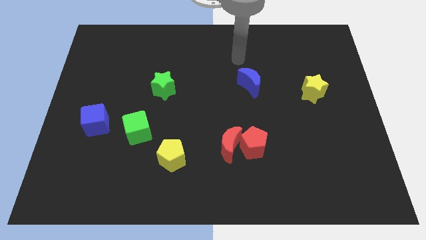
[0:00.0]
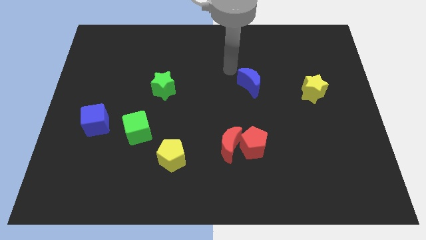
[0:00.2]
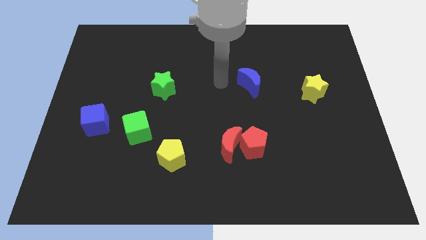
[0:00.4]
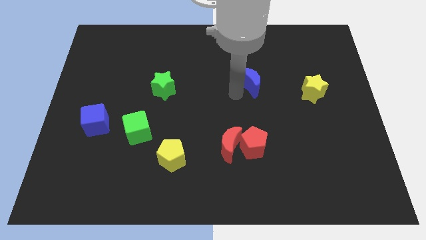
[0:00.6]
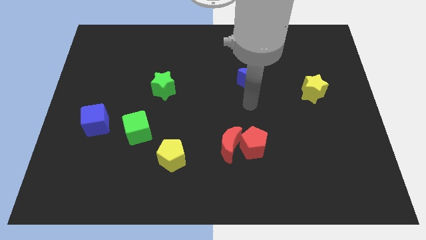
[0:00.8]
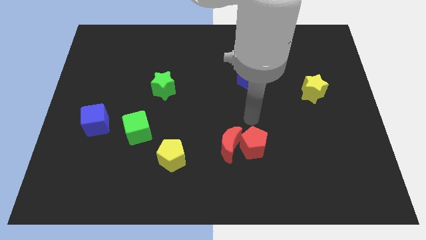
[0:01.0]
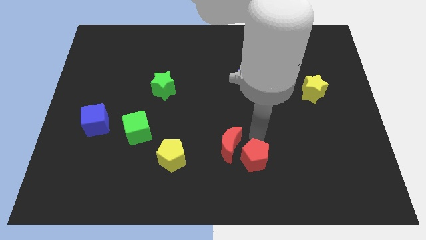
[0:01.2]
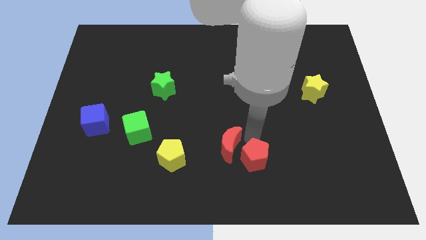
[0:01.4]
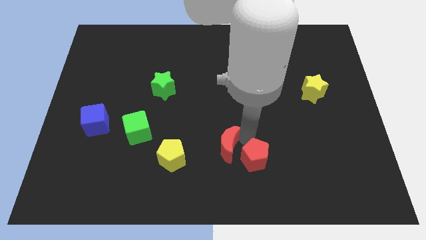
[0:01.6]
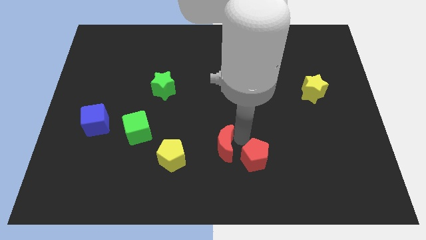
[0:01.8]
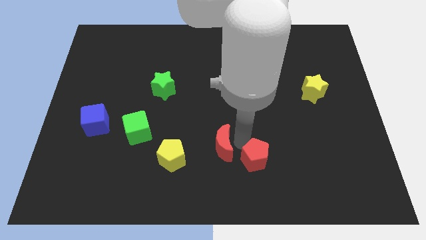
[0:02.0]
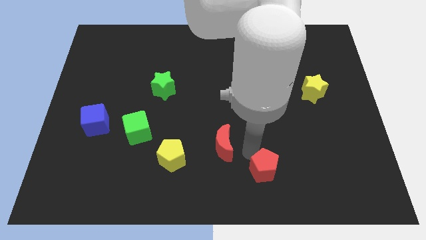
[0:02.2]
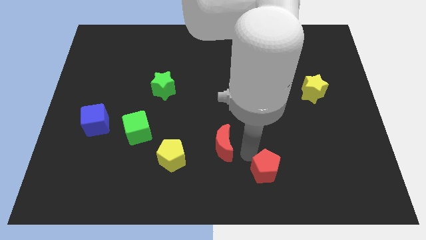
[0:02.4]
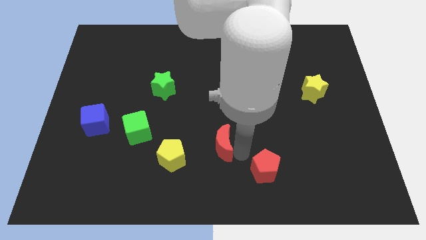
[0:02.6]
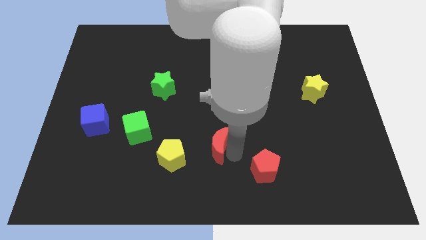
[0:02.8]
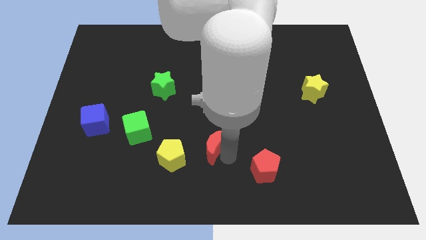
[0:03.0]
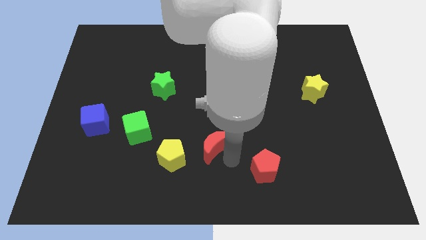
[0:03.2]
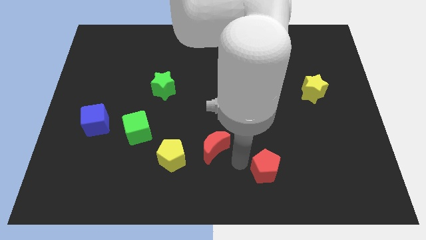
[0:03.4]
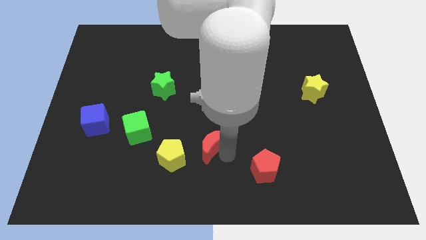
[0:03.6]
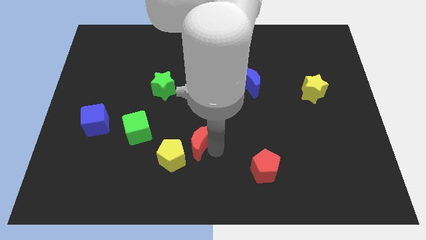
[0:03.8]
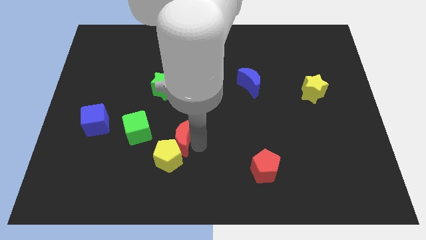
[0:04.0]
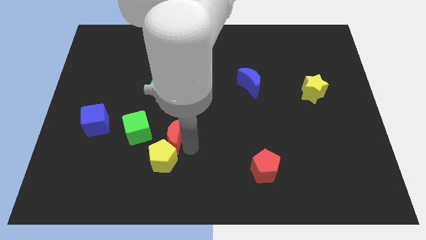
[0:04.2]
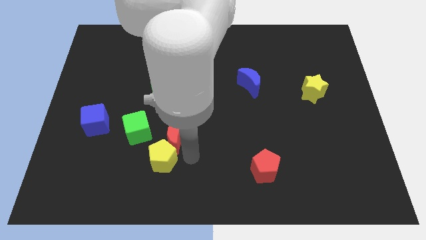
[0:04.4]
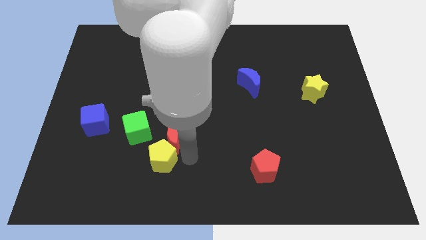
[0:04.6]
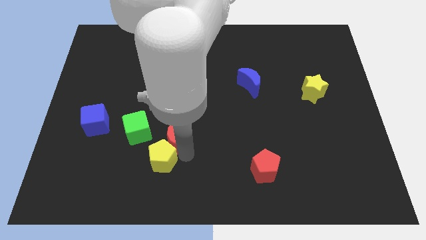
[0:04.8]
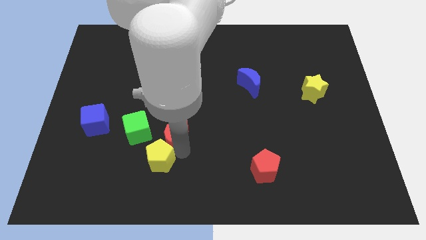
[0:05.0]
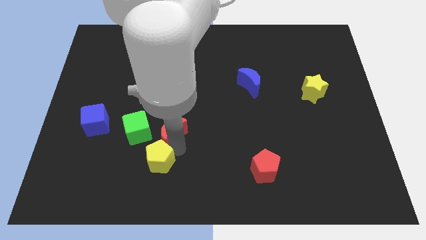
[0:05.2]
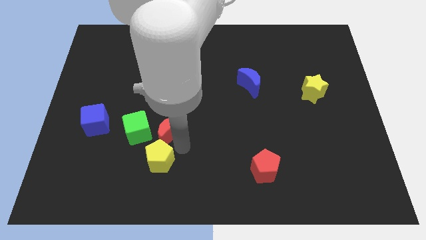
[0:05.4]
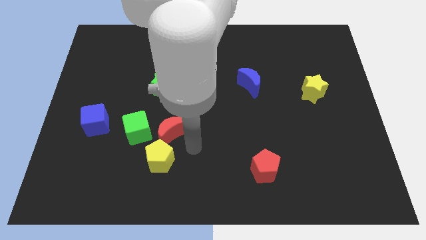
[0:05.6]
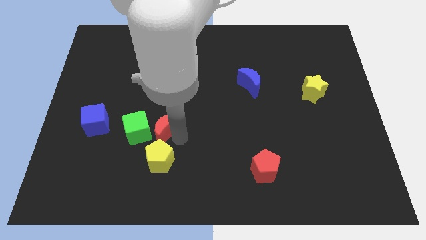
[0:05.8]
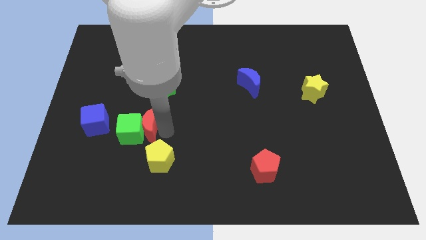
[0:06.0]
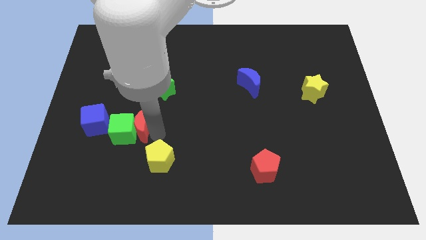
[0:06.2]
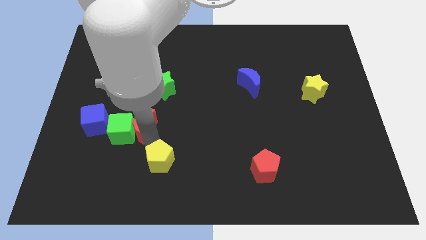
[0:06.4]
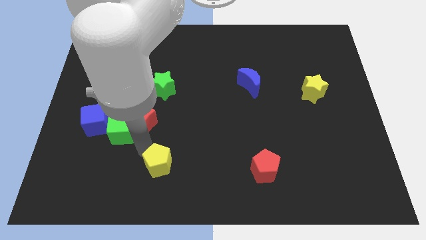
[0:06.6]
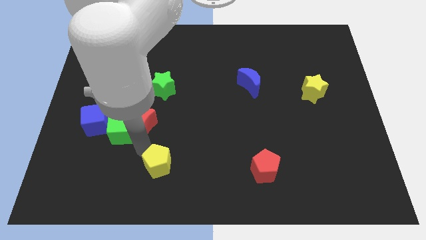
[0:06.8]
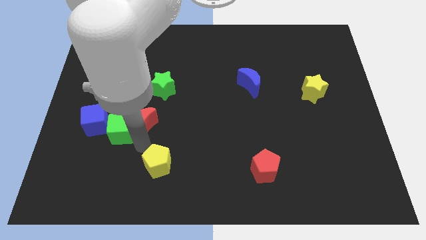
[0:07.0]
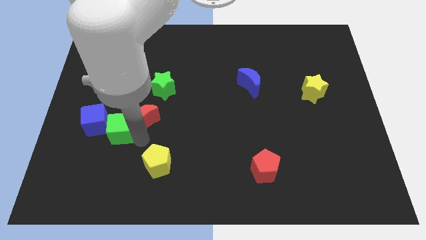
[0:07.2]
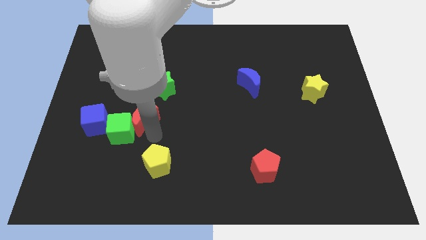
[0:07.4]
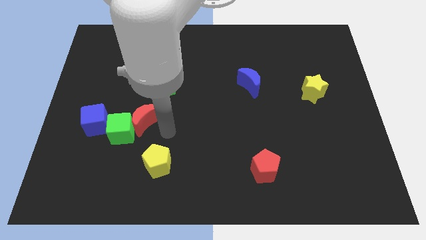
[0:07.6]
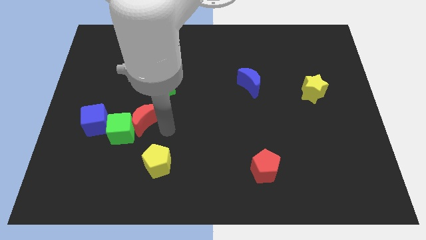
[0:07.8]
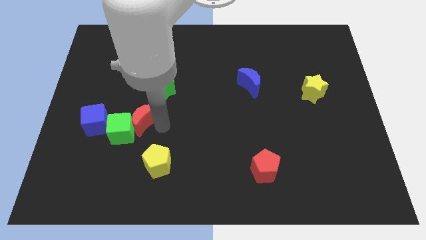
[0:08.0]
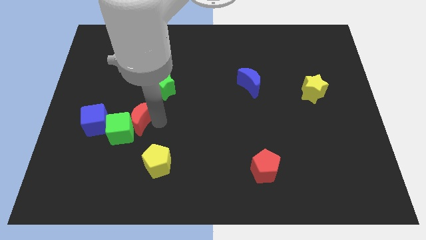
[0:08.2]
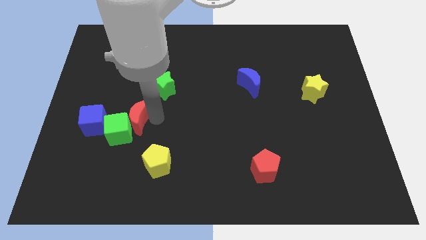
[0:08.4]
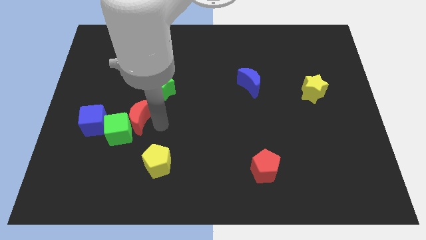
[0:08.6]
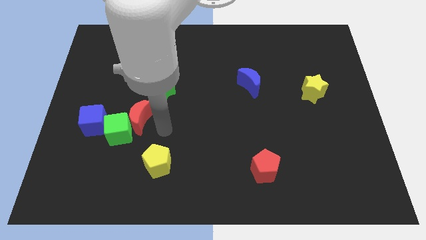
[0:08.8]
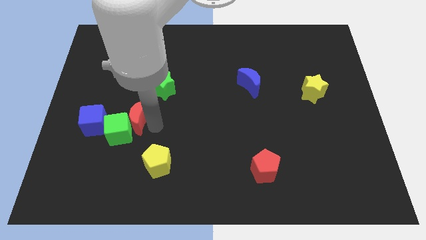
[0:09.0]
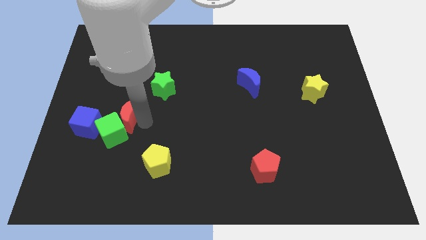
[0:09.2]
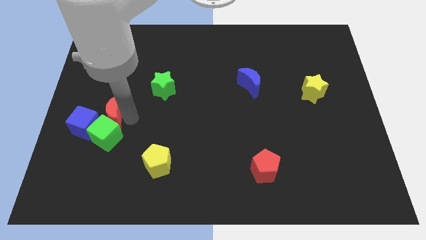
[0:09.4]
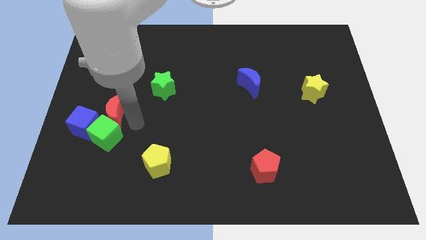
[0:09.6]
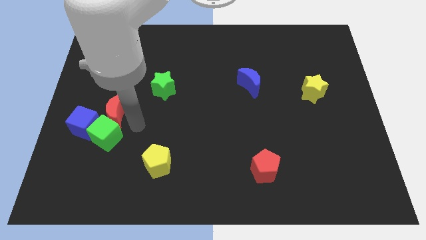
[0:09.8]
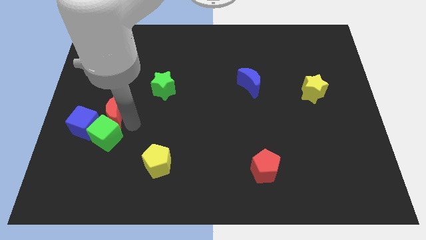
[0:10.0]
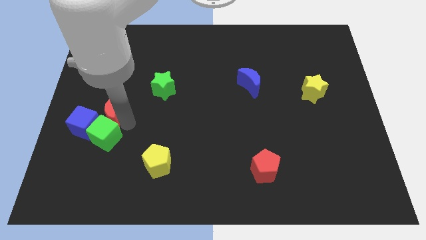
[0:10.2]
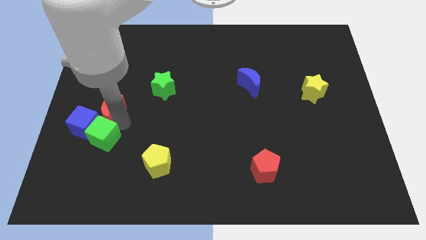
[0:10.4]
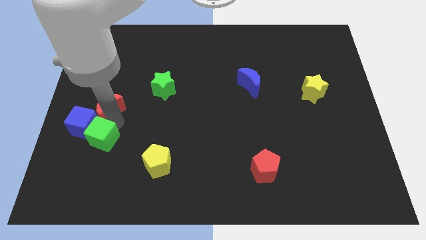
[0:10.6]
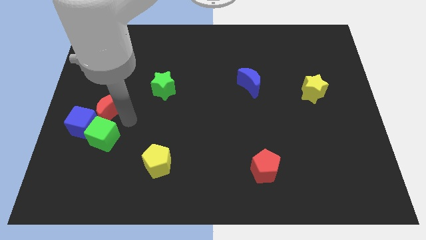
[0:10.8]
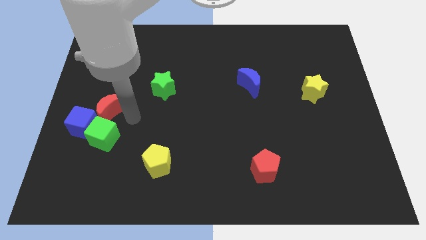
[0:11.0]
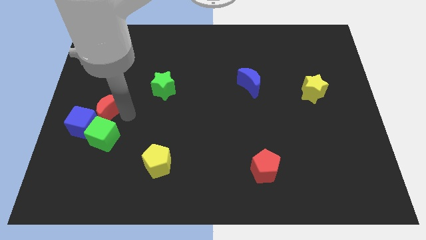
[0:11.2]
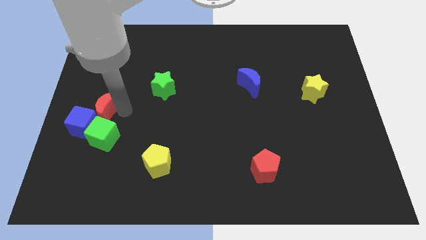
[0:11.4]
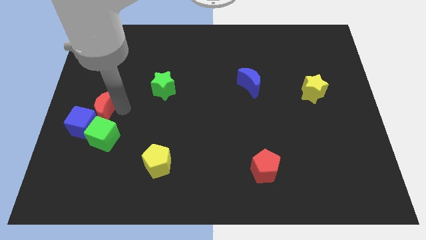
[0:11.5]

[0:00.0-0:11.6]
move the red moon to the left side of the board
